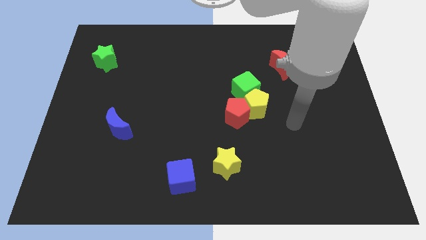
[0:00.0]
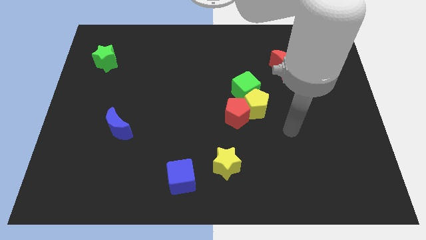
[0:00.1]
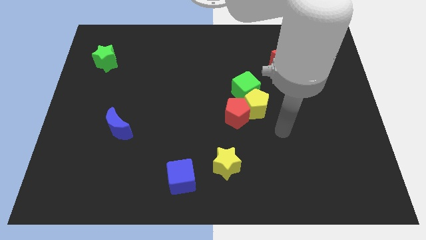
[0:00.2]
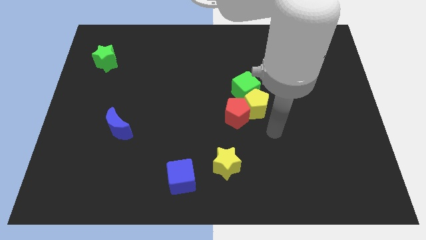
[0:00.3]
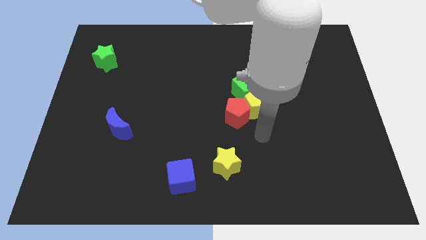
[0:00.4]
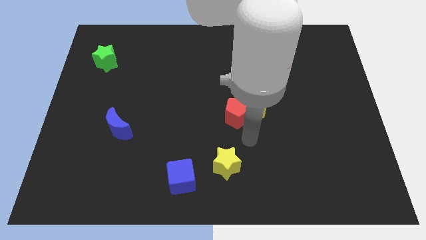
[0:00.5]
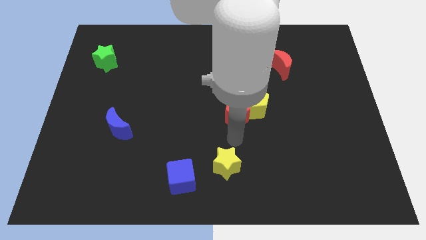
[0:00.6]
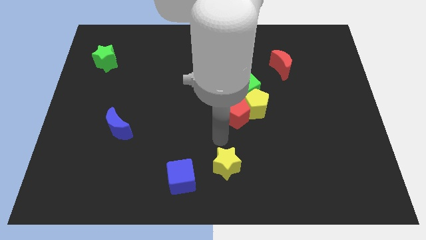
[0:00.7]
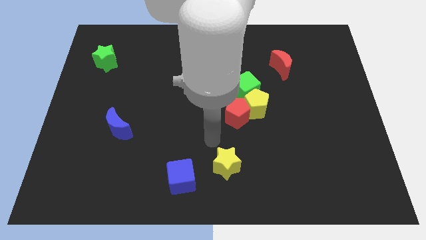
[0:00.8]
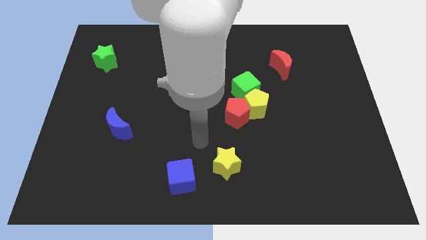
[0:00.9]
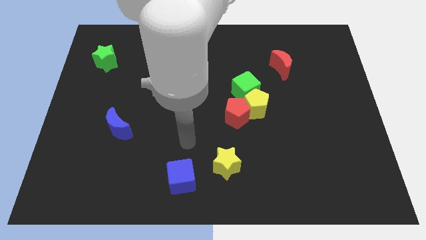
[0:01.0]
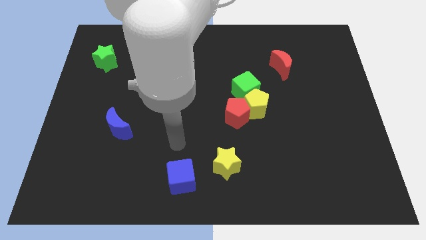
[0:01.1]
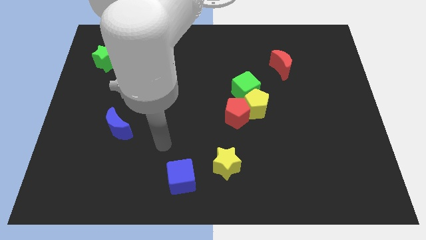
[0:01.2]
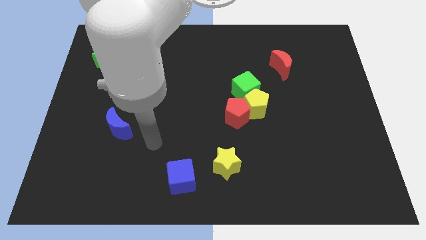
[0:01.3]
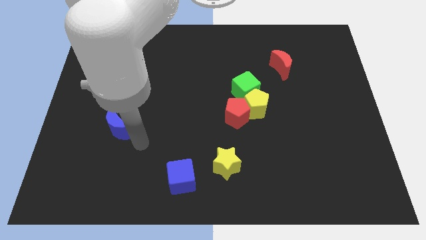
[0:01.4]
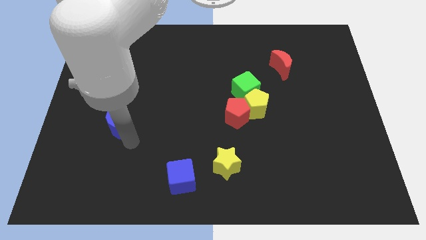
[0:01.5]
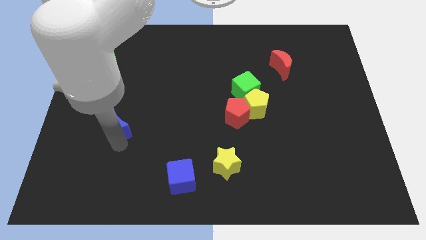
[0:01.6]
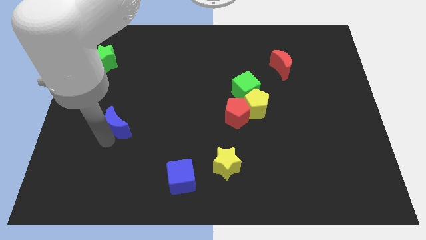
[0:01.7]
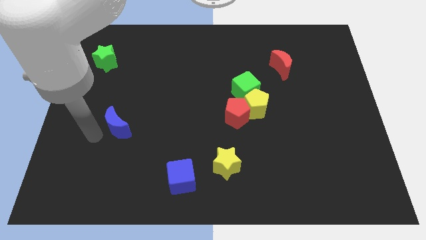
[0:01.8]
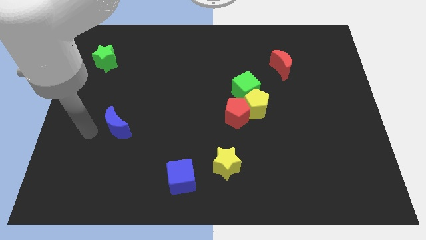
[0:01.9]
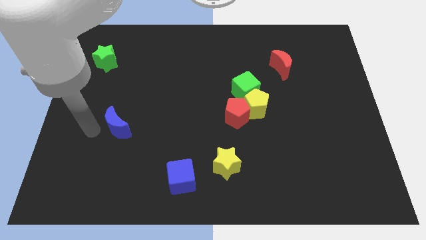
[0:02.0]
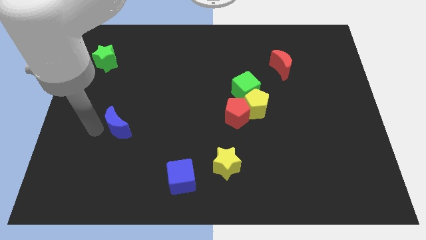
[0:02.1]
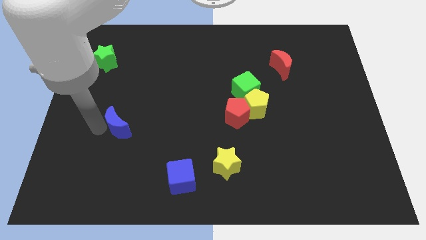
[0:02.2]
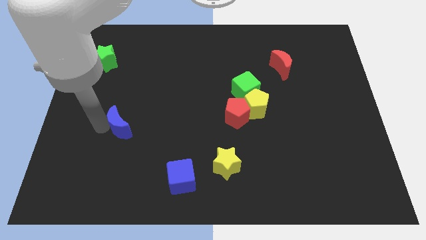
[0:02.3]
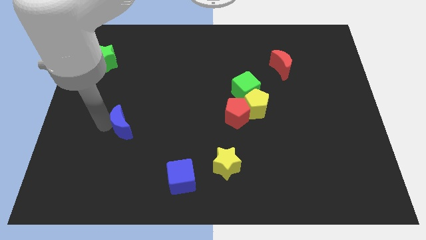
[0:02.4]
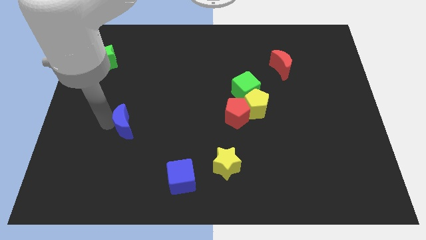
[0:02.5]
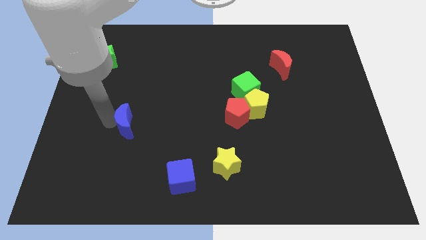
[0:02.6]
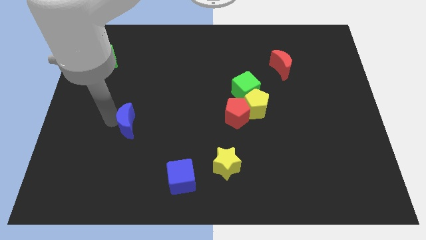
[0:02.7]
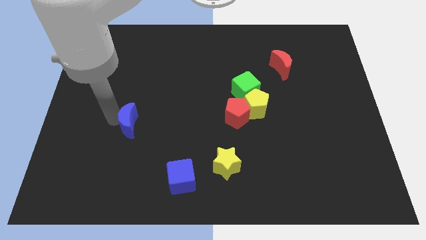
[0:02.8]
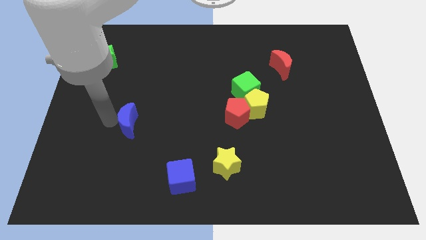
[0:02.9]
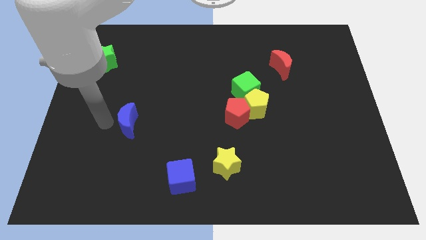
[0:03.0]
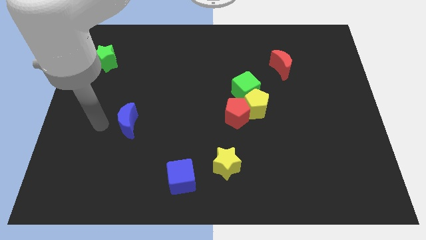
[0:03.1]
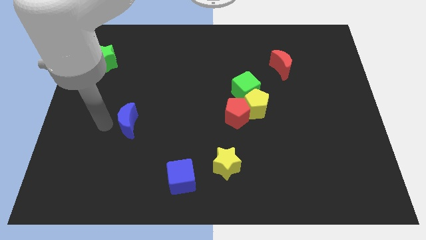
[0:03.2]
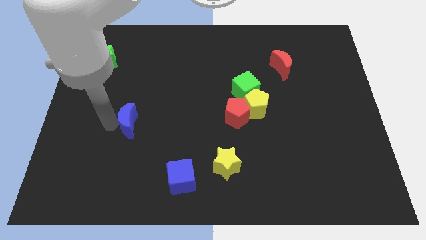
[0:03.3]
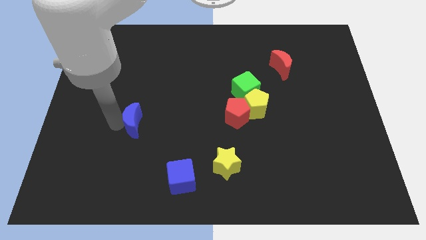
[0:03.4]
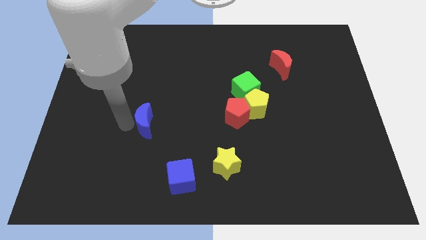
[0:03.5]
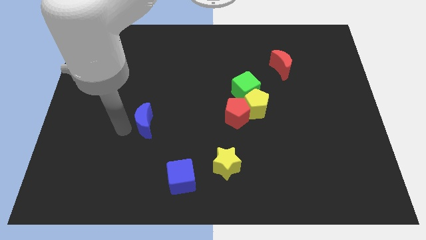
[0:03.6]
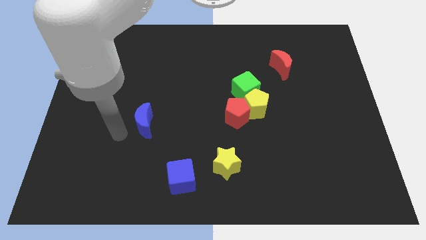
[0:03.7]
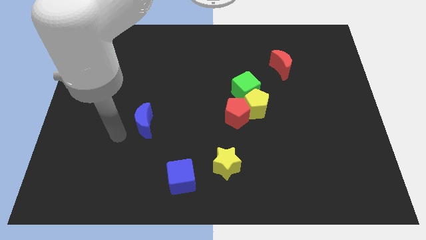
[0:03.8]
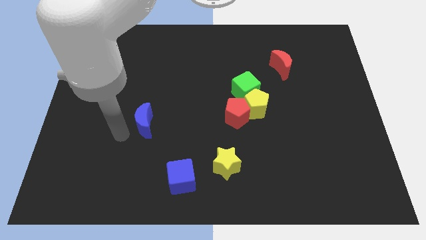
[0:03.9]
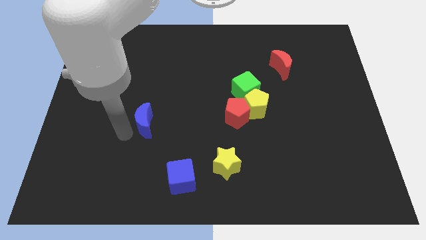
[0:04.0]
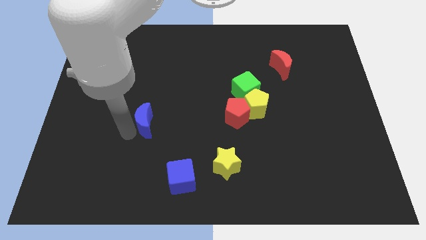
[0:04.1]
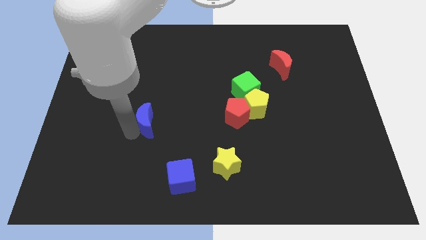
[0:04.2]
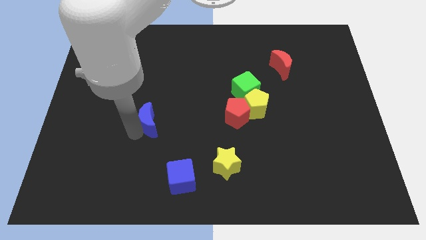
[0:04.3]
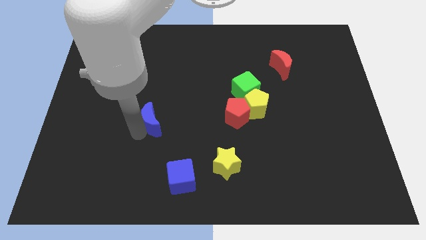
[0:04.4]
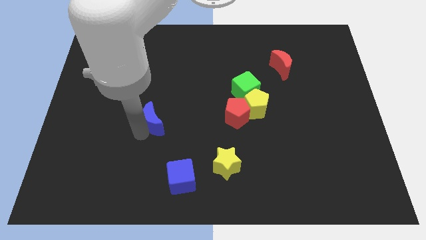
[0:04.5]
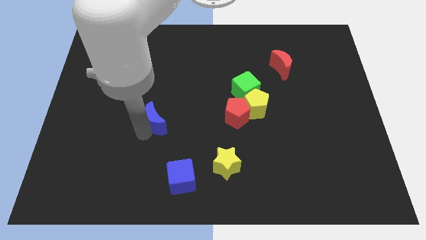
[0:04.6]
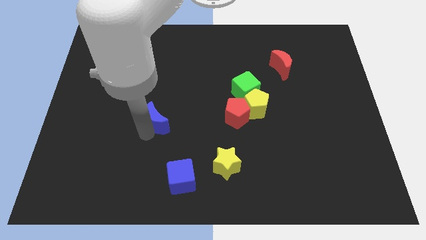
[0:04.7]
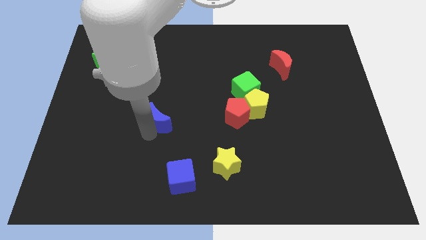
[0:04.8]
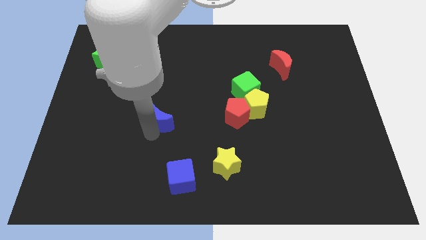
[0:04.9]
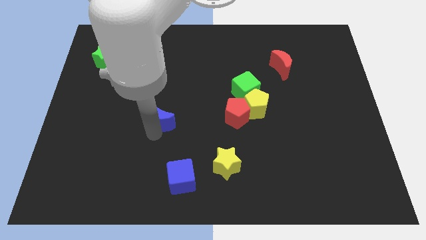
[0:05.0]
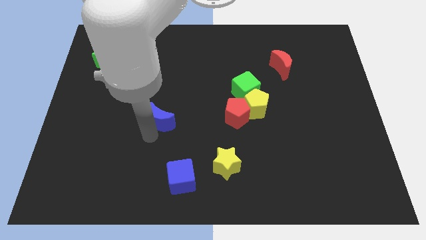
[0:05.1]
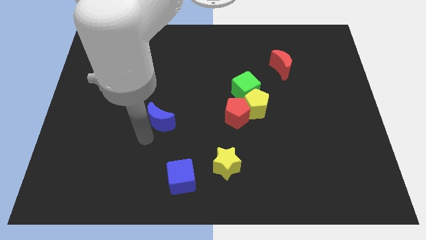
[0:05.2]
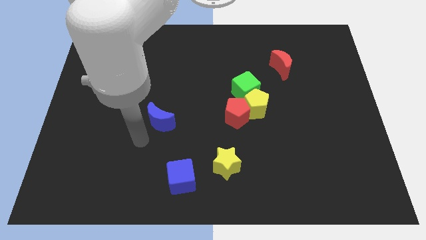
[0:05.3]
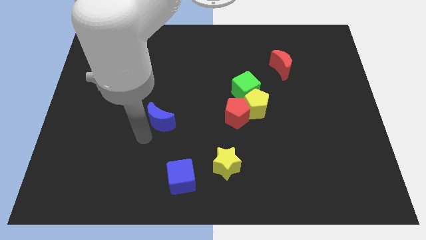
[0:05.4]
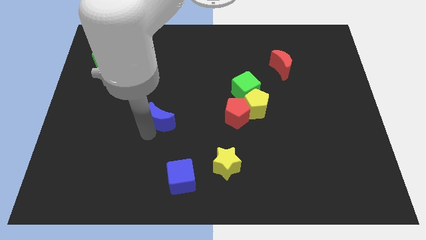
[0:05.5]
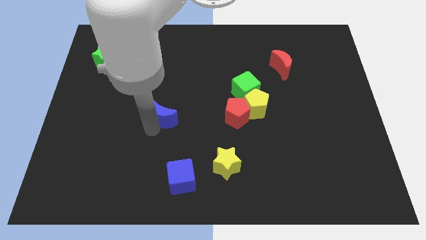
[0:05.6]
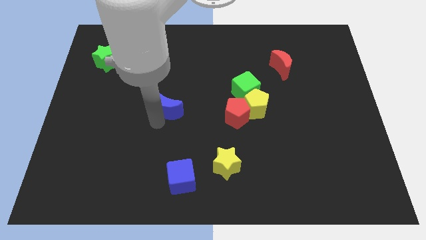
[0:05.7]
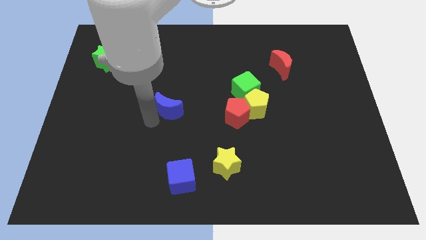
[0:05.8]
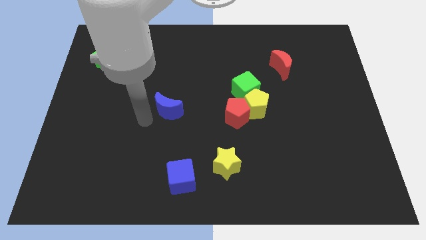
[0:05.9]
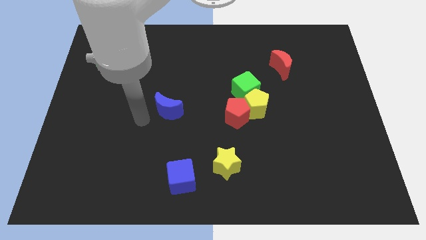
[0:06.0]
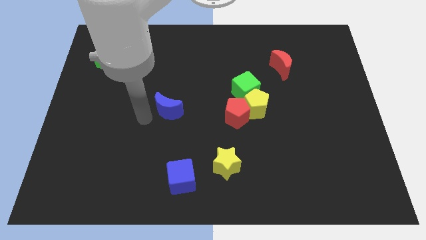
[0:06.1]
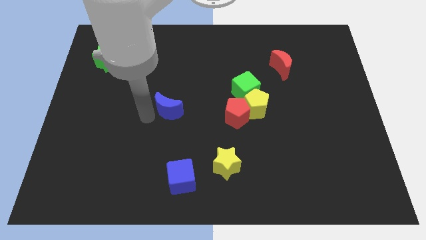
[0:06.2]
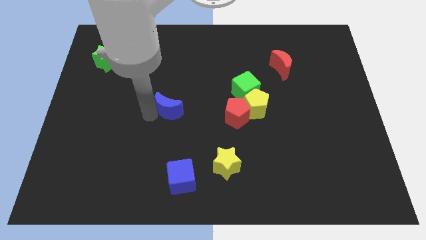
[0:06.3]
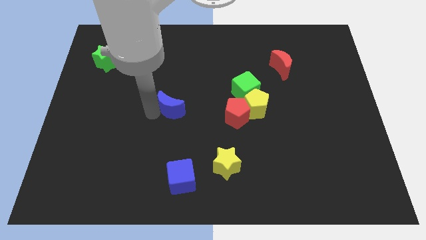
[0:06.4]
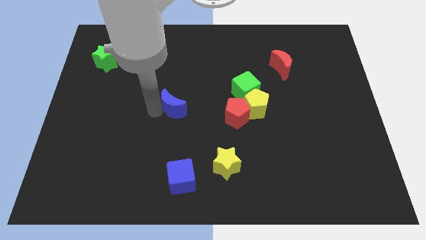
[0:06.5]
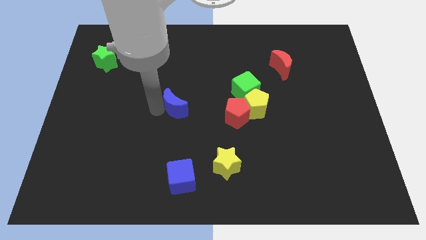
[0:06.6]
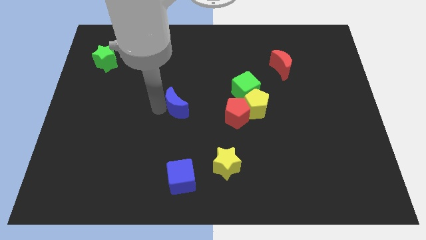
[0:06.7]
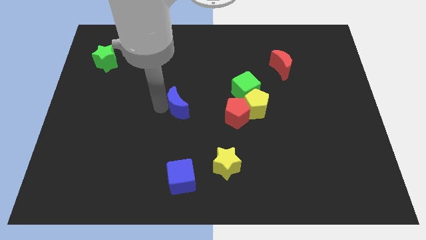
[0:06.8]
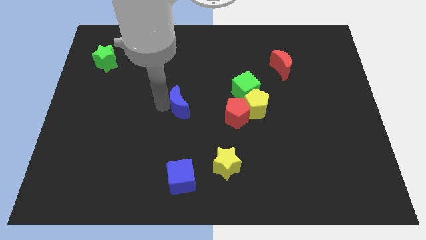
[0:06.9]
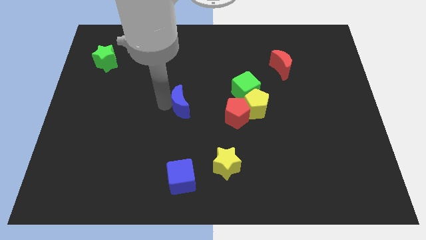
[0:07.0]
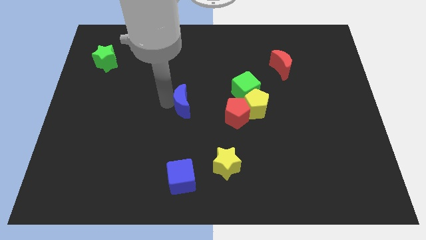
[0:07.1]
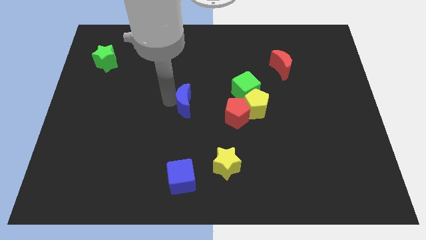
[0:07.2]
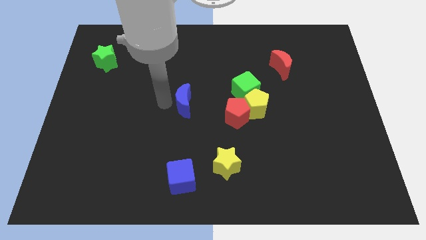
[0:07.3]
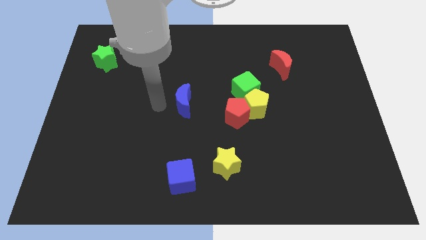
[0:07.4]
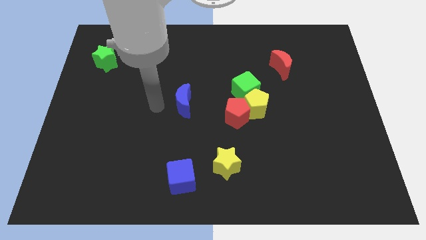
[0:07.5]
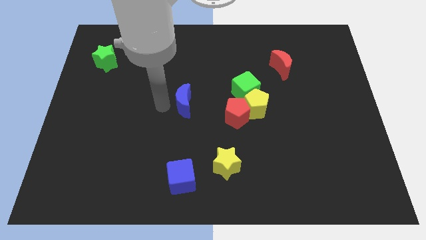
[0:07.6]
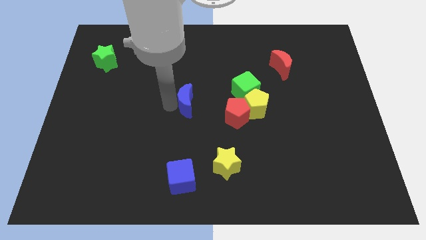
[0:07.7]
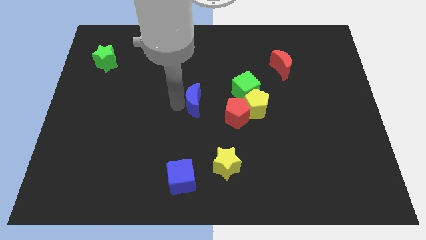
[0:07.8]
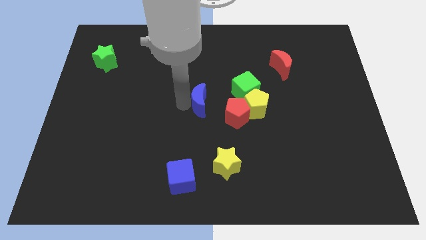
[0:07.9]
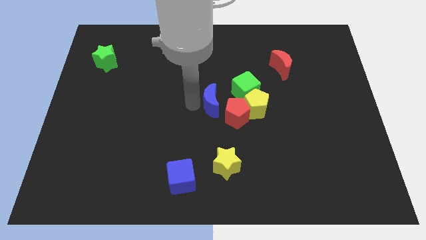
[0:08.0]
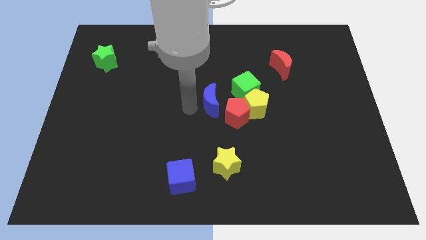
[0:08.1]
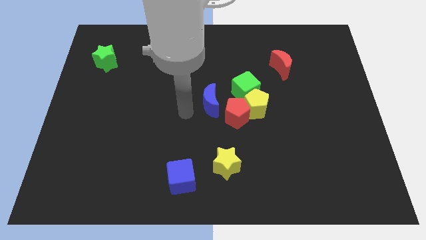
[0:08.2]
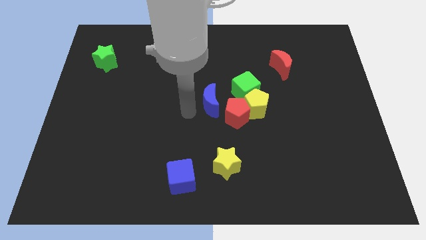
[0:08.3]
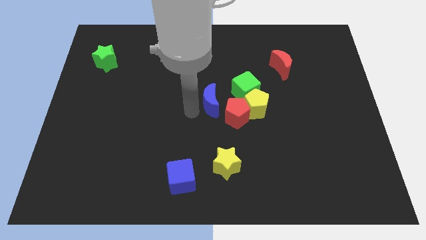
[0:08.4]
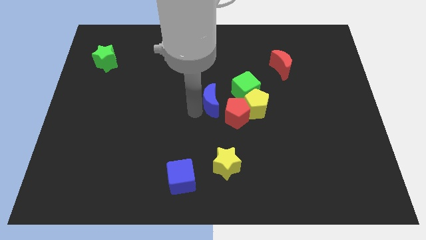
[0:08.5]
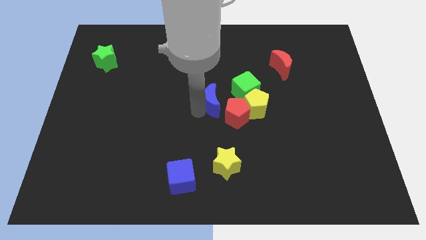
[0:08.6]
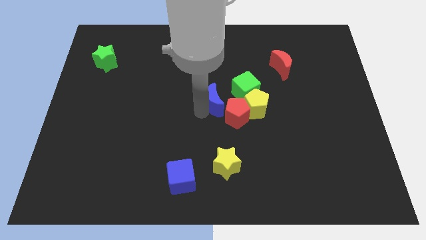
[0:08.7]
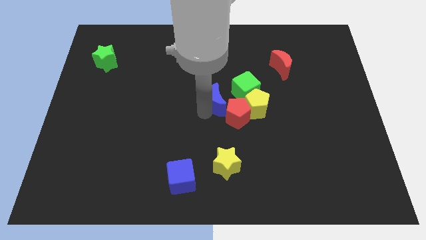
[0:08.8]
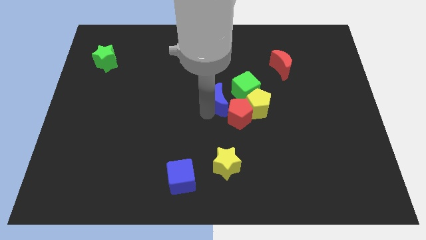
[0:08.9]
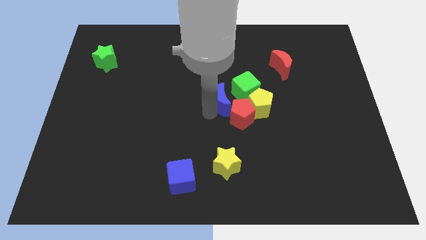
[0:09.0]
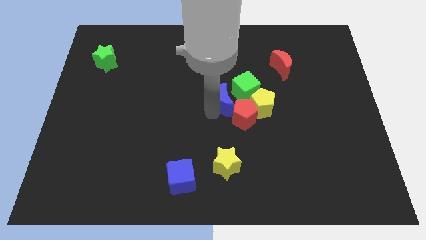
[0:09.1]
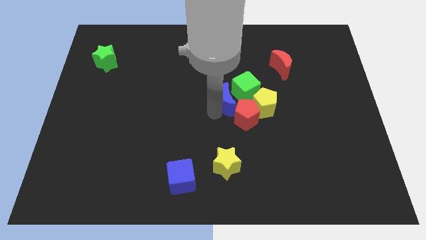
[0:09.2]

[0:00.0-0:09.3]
slide the blue moon to the green cube
